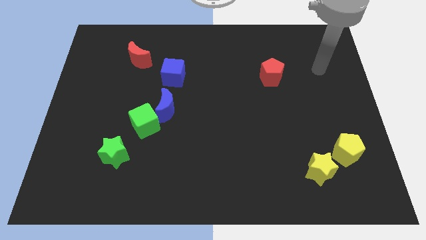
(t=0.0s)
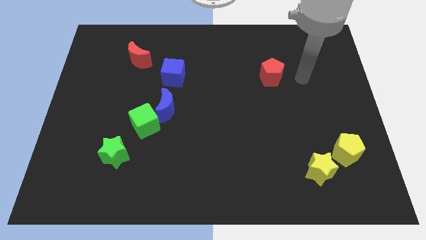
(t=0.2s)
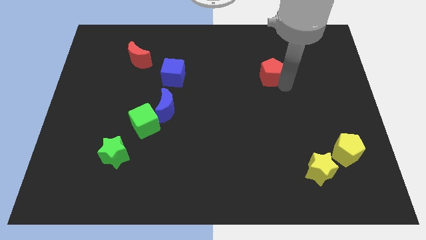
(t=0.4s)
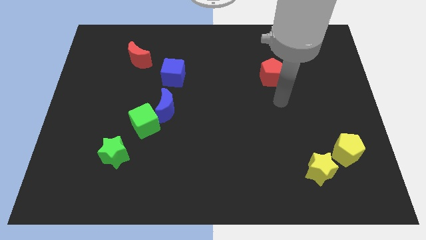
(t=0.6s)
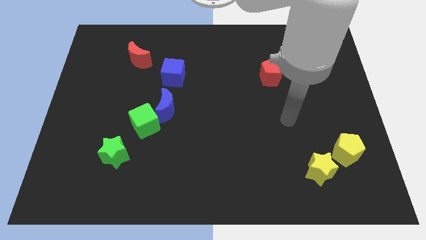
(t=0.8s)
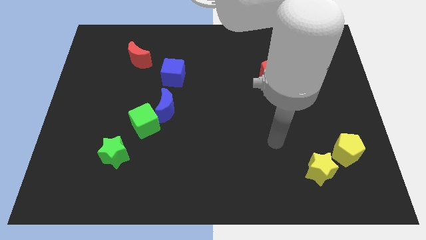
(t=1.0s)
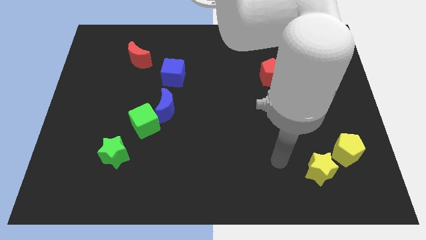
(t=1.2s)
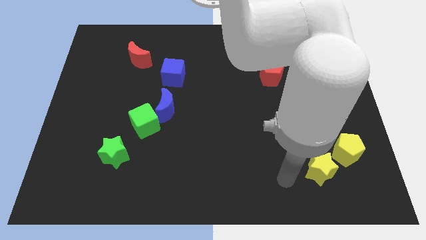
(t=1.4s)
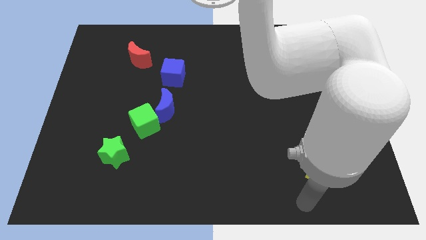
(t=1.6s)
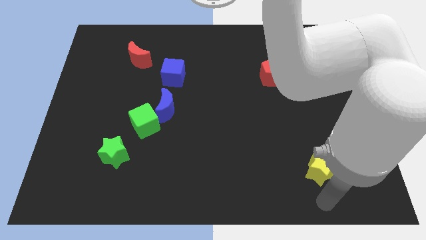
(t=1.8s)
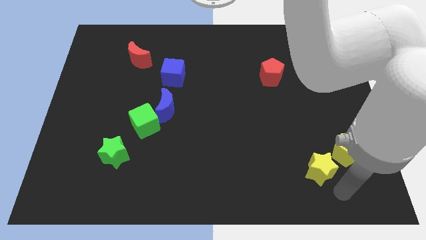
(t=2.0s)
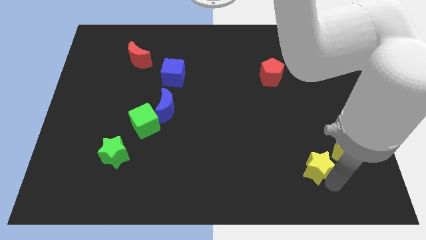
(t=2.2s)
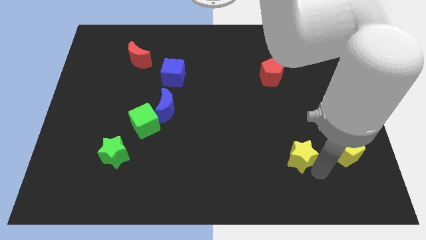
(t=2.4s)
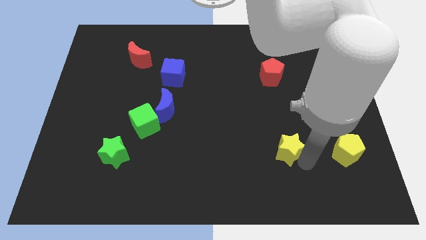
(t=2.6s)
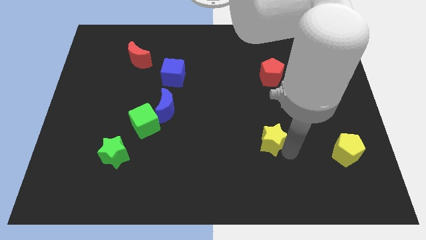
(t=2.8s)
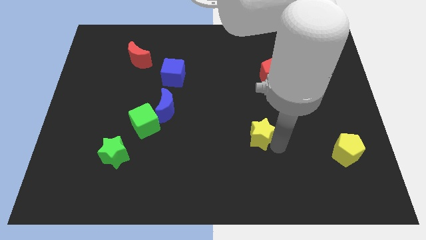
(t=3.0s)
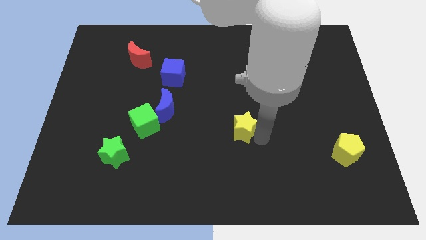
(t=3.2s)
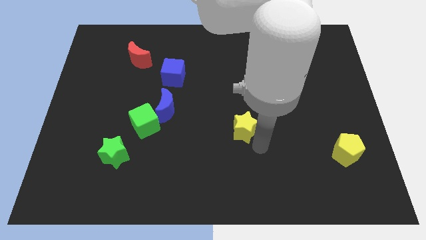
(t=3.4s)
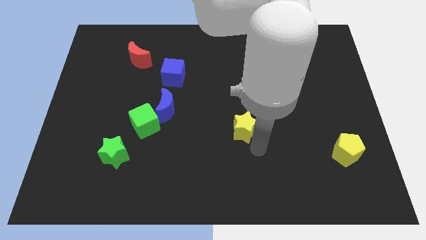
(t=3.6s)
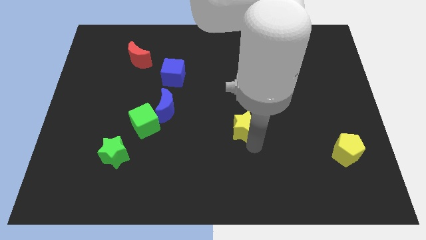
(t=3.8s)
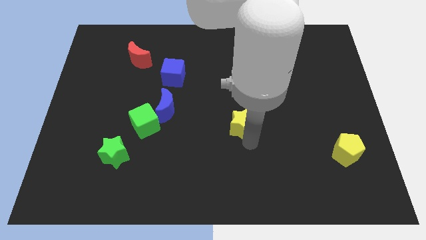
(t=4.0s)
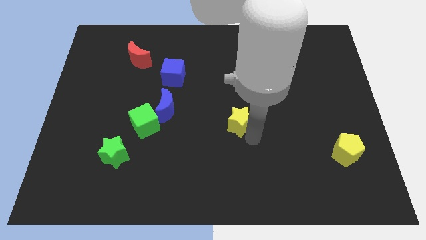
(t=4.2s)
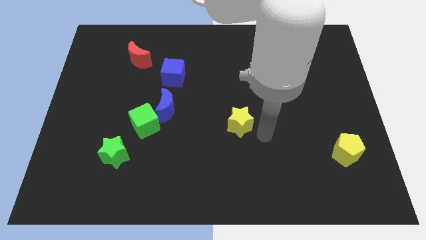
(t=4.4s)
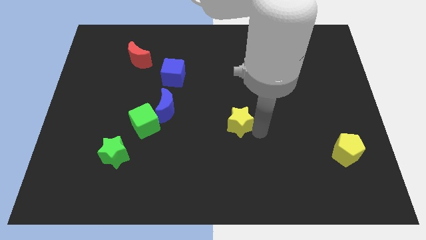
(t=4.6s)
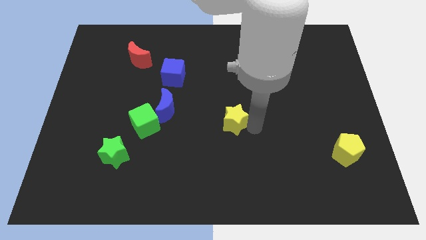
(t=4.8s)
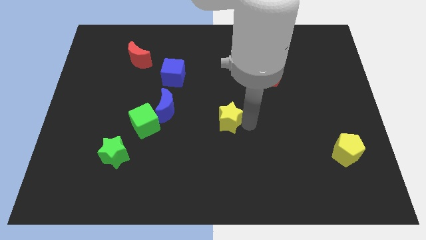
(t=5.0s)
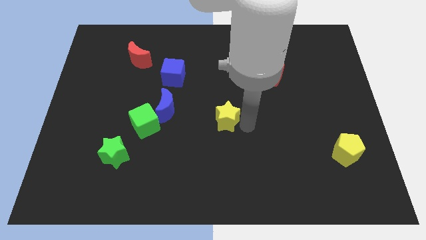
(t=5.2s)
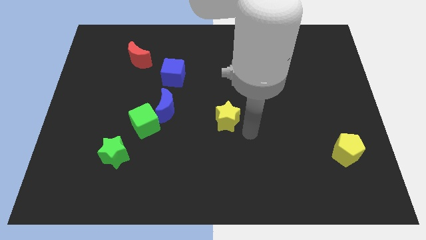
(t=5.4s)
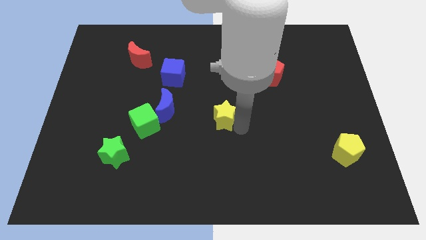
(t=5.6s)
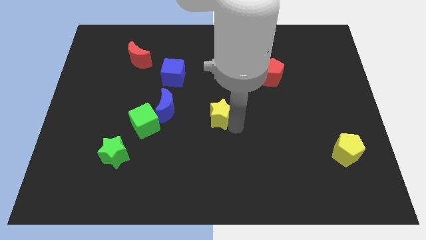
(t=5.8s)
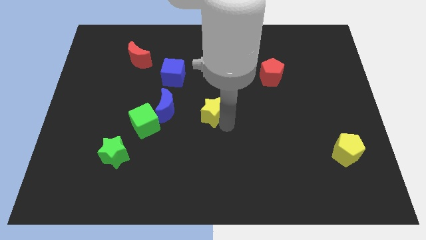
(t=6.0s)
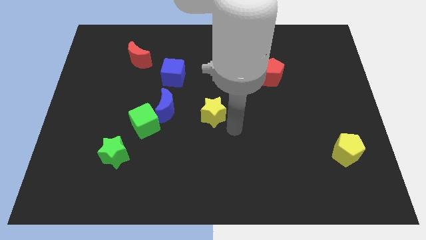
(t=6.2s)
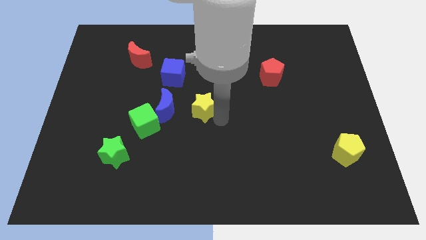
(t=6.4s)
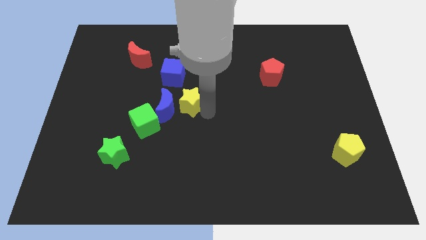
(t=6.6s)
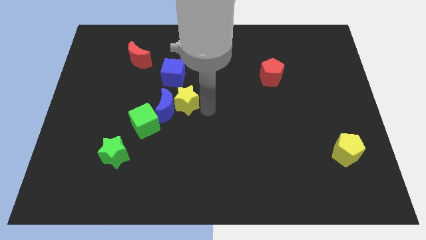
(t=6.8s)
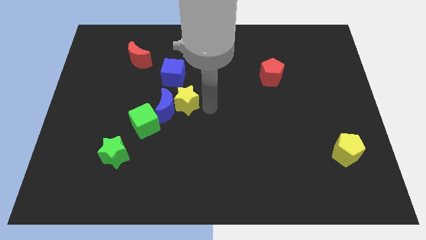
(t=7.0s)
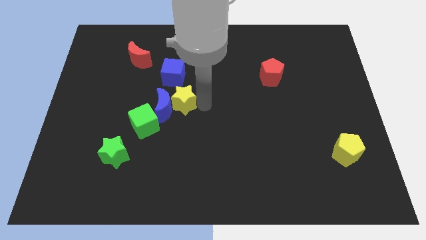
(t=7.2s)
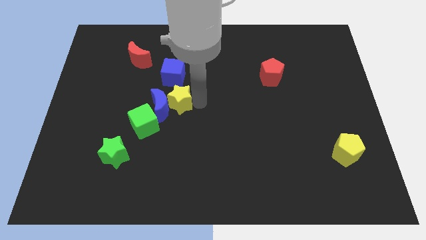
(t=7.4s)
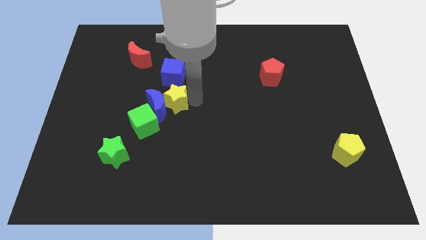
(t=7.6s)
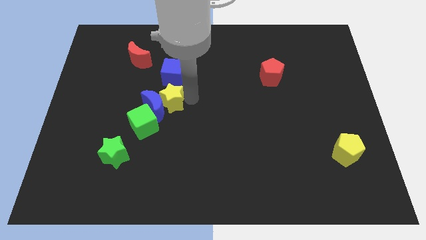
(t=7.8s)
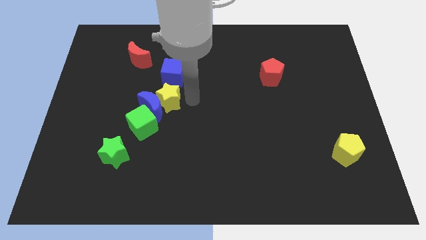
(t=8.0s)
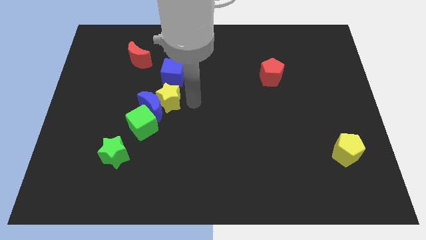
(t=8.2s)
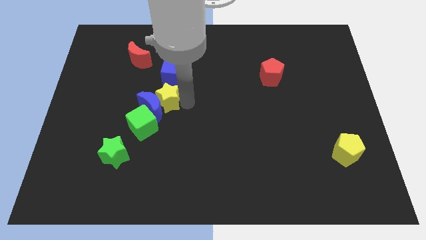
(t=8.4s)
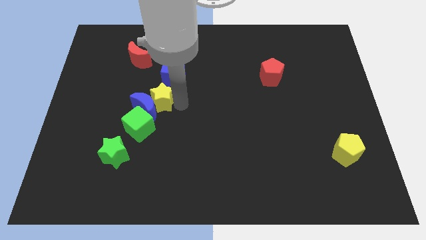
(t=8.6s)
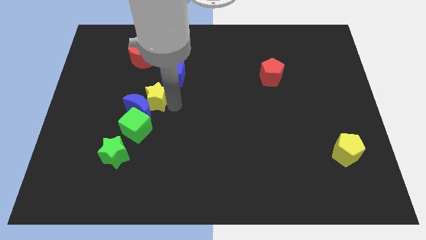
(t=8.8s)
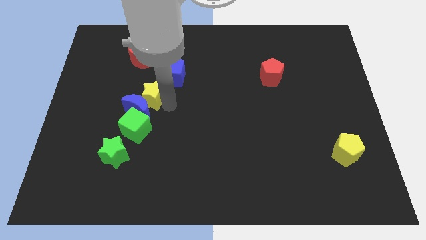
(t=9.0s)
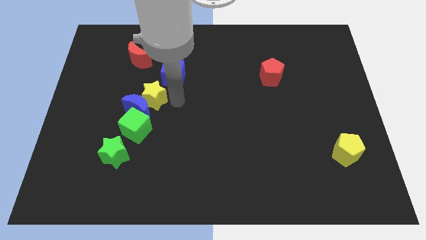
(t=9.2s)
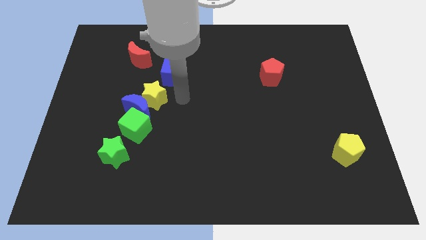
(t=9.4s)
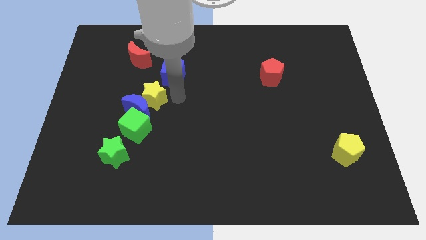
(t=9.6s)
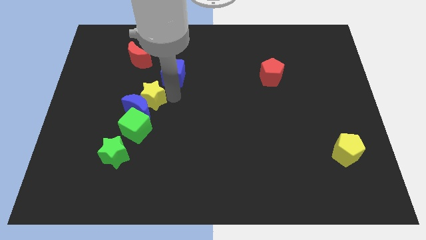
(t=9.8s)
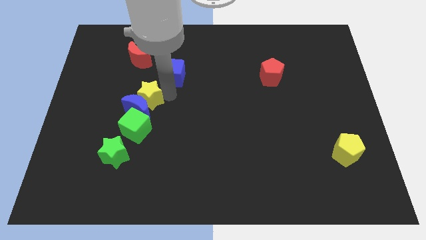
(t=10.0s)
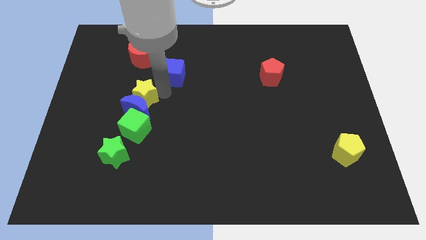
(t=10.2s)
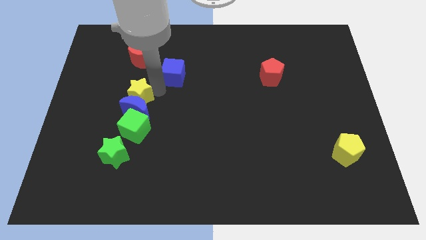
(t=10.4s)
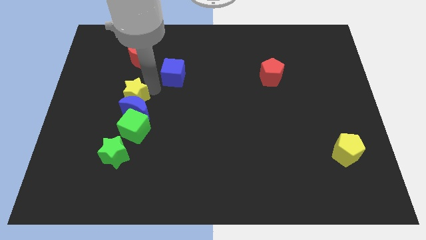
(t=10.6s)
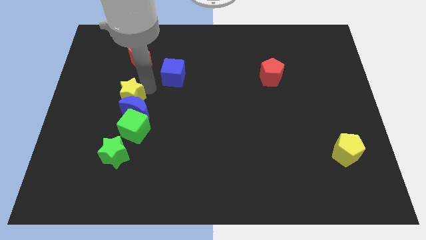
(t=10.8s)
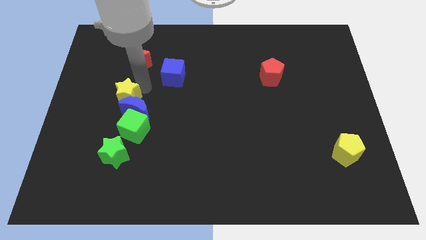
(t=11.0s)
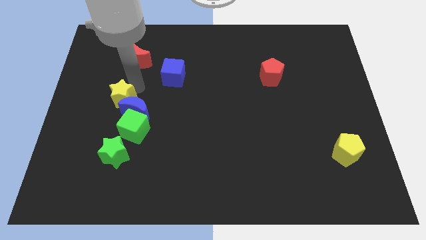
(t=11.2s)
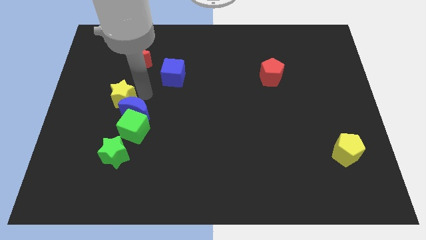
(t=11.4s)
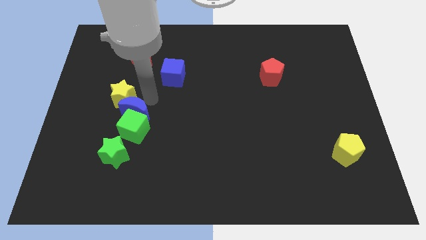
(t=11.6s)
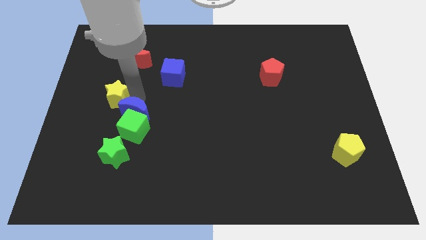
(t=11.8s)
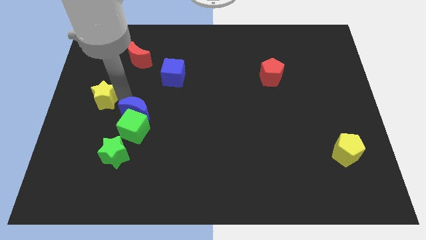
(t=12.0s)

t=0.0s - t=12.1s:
put the yellow star to the left side of the board
